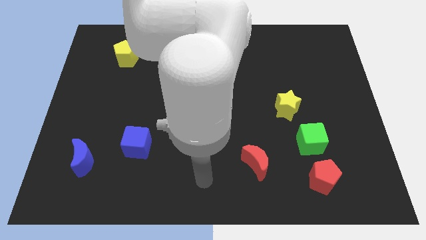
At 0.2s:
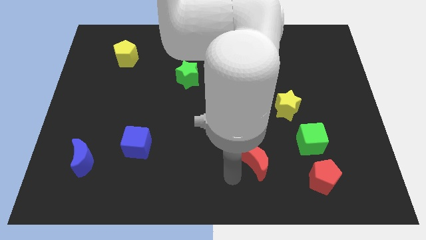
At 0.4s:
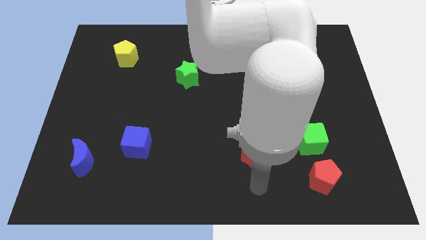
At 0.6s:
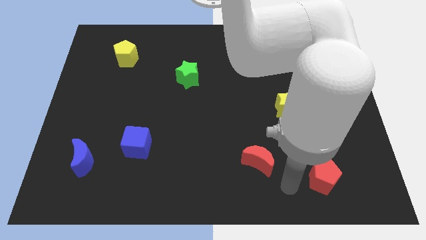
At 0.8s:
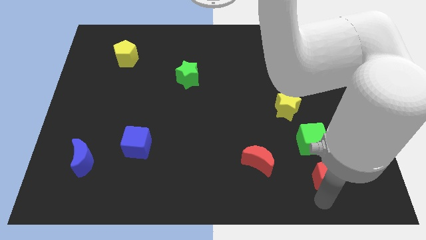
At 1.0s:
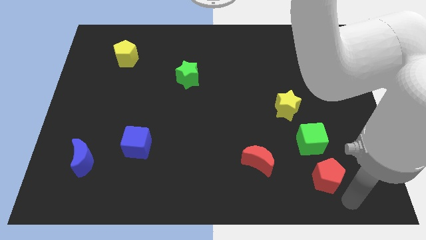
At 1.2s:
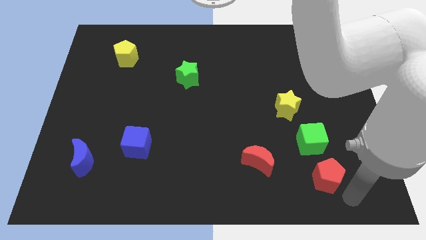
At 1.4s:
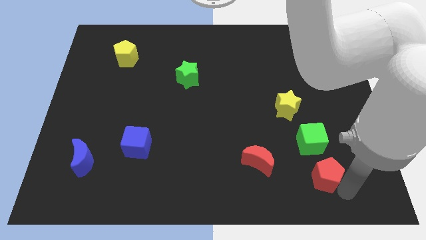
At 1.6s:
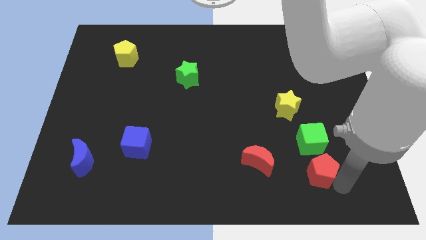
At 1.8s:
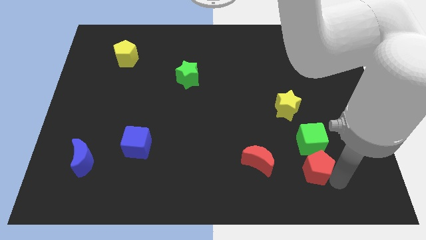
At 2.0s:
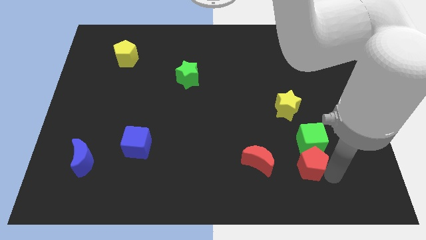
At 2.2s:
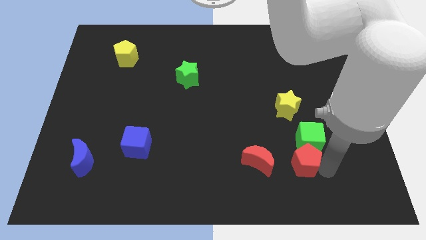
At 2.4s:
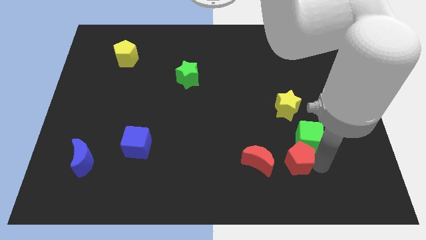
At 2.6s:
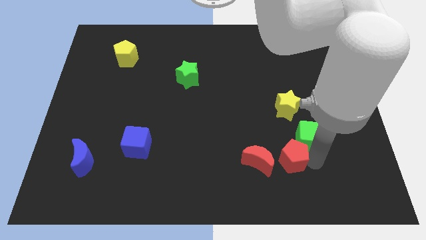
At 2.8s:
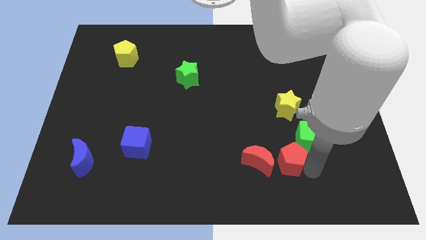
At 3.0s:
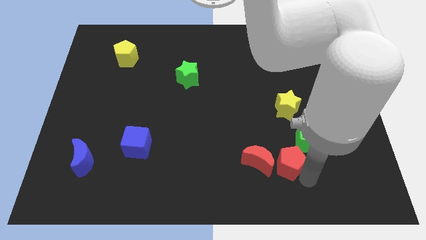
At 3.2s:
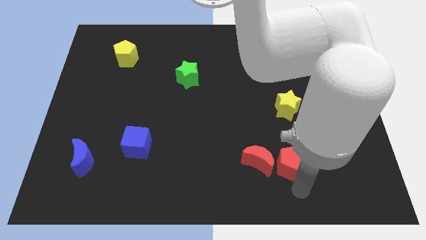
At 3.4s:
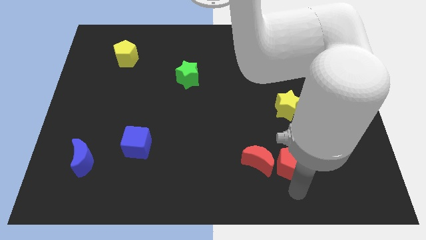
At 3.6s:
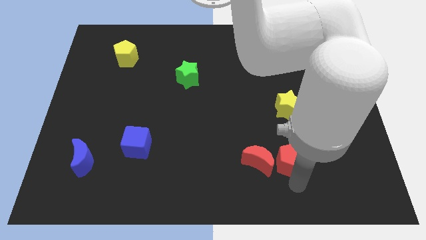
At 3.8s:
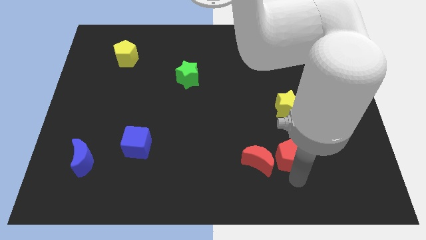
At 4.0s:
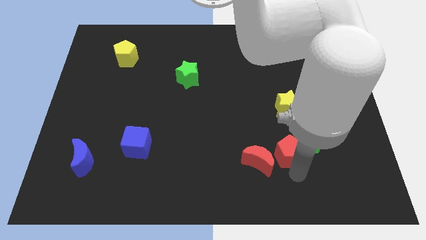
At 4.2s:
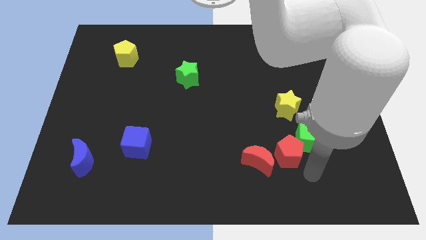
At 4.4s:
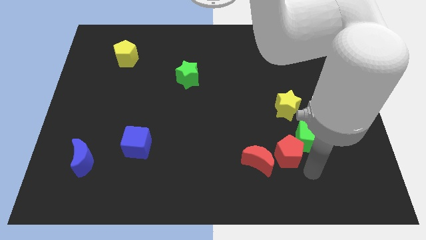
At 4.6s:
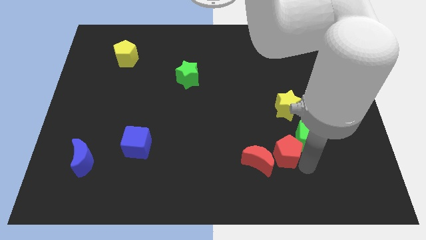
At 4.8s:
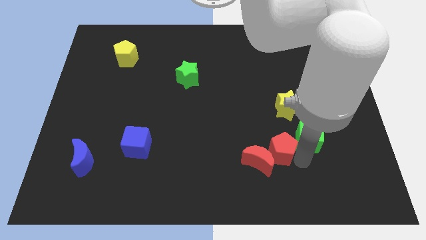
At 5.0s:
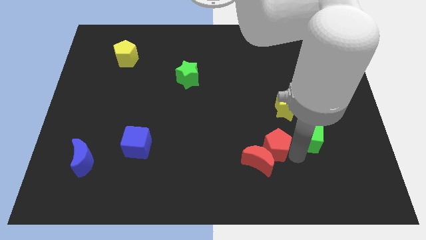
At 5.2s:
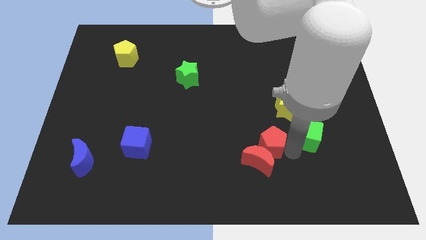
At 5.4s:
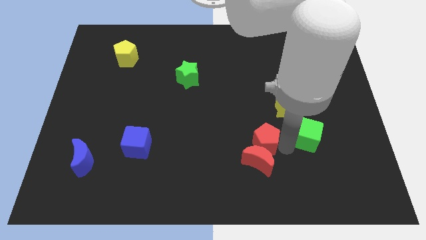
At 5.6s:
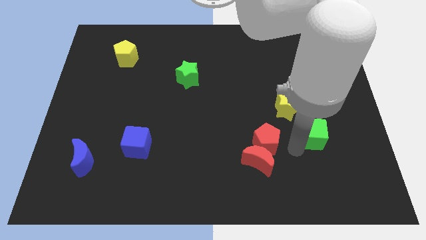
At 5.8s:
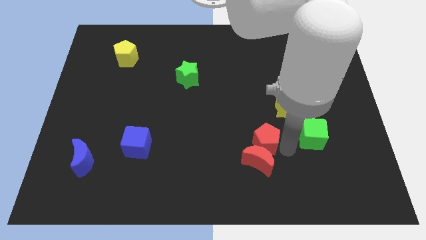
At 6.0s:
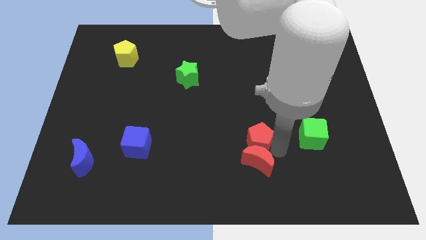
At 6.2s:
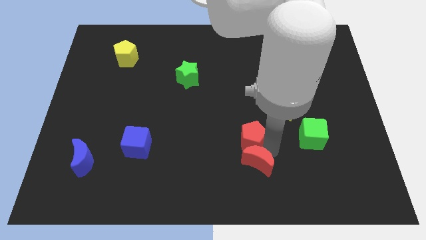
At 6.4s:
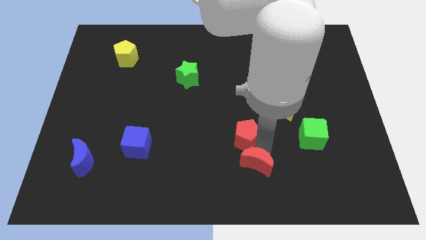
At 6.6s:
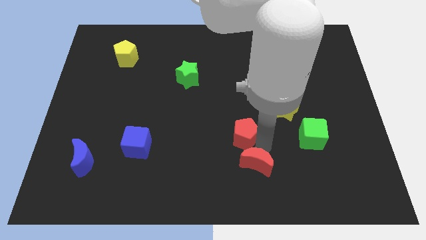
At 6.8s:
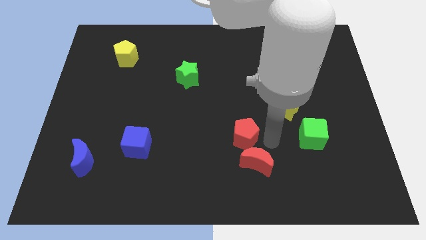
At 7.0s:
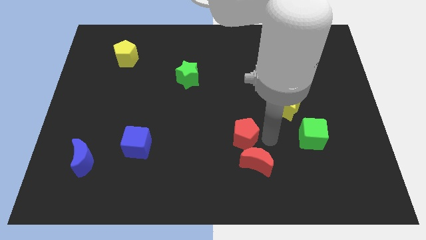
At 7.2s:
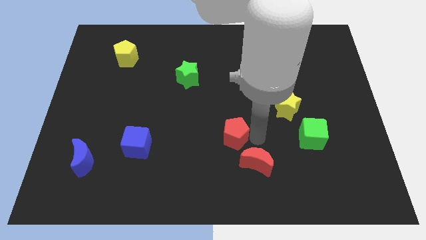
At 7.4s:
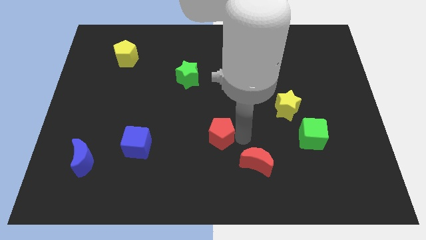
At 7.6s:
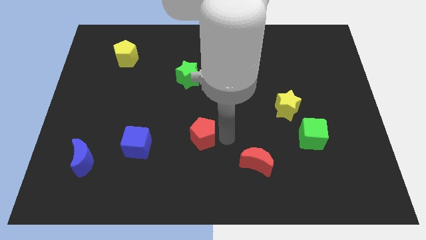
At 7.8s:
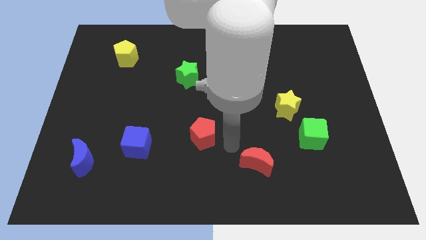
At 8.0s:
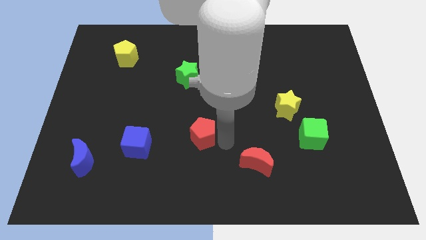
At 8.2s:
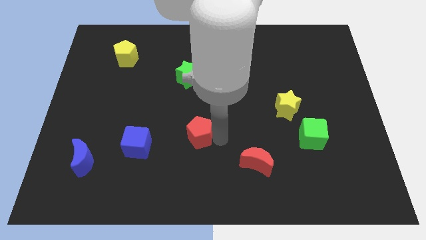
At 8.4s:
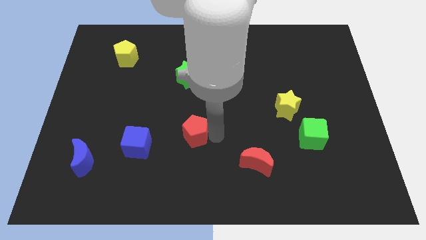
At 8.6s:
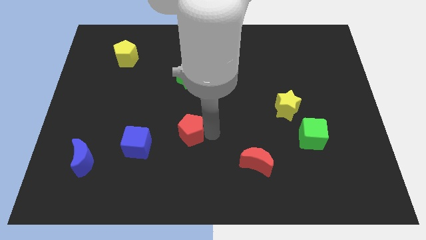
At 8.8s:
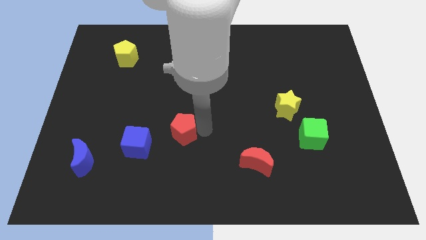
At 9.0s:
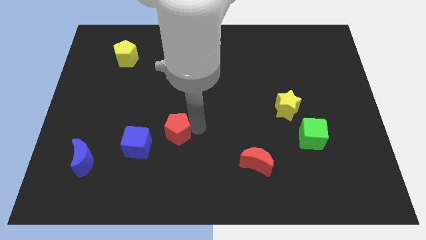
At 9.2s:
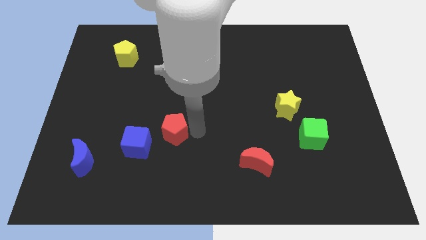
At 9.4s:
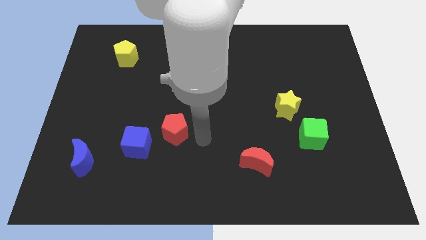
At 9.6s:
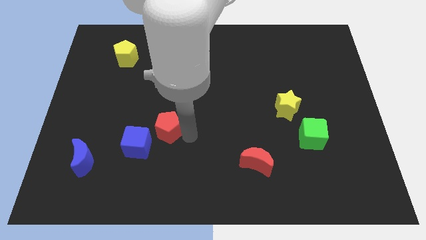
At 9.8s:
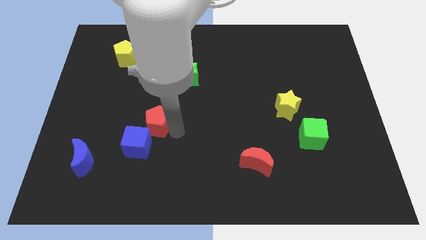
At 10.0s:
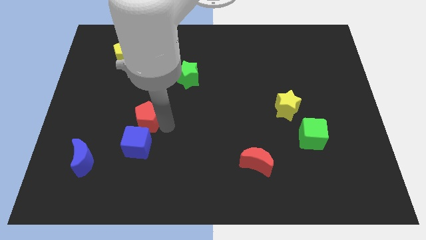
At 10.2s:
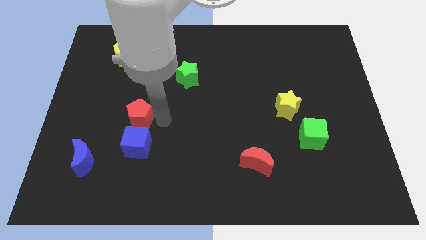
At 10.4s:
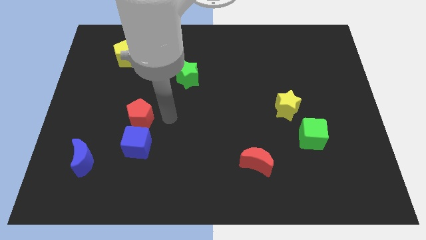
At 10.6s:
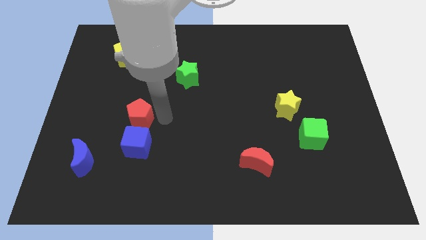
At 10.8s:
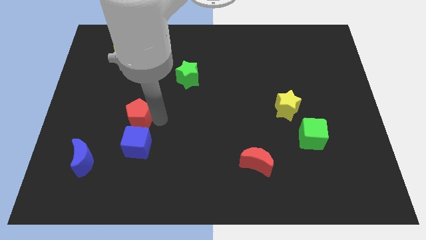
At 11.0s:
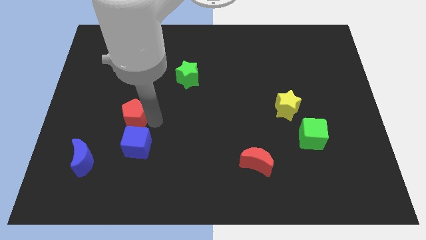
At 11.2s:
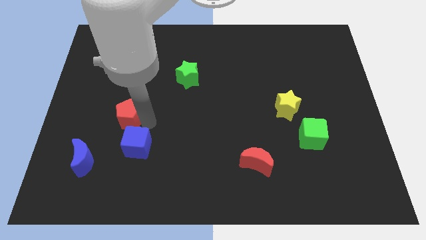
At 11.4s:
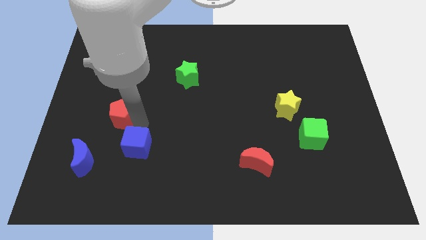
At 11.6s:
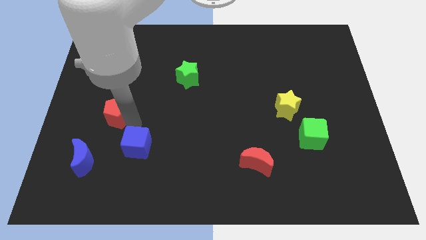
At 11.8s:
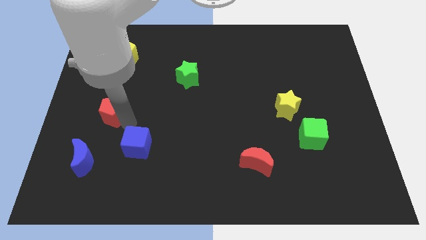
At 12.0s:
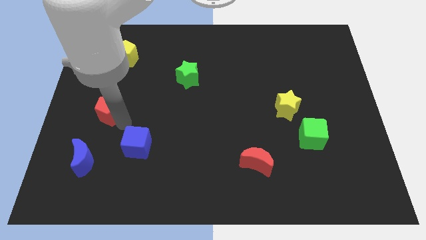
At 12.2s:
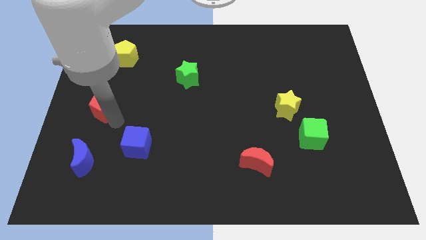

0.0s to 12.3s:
move the red pentagon to the left side
